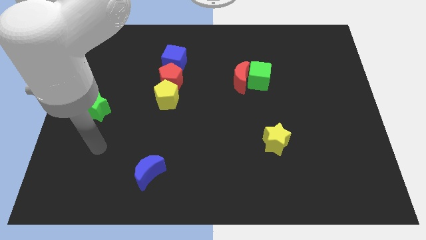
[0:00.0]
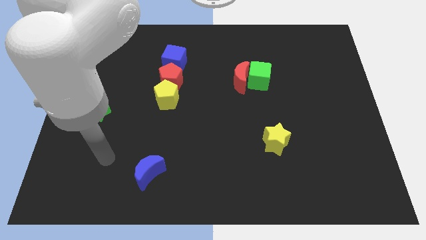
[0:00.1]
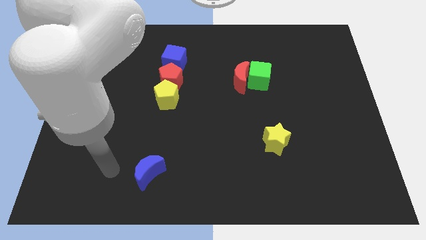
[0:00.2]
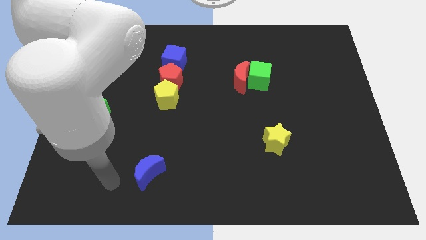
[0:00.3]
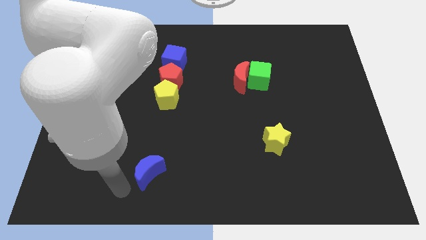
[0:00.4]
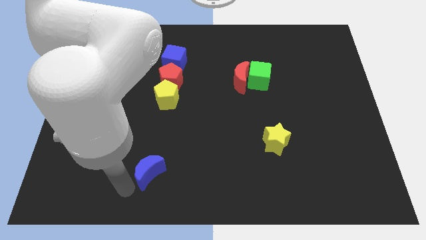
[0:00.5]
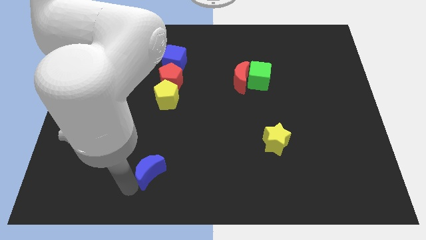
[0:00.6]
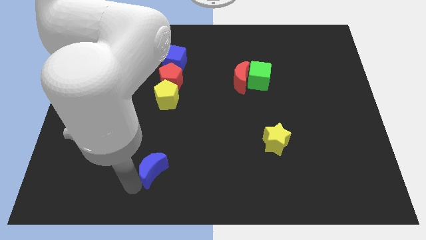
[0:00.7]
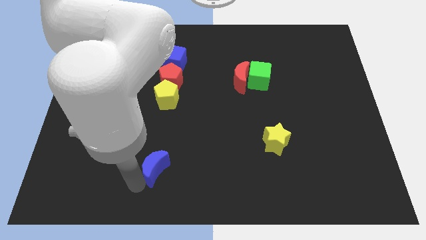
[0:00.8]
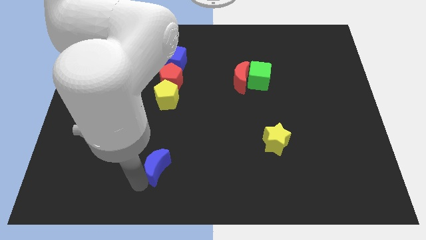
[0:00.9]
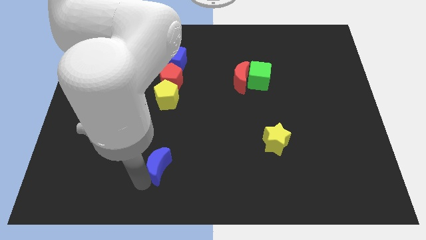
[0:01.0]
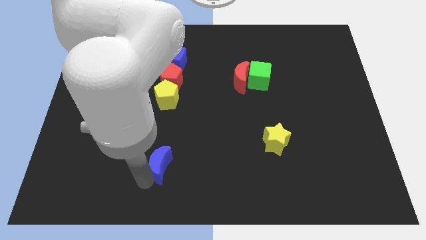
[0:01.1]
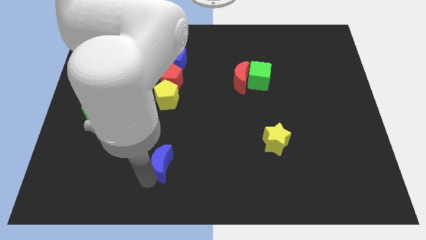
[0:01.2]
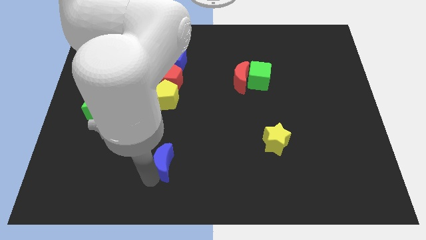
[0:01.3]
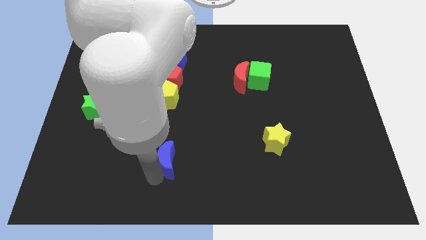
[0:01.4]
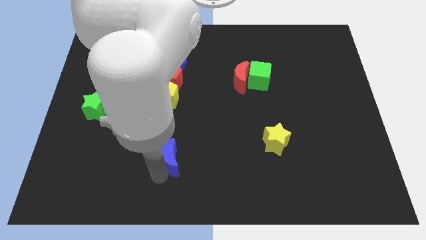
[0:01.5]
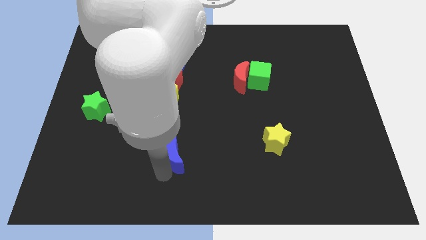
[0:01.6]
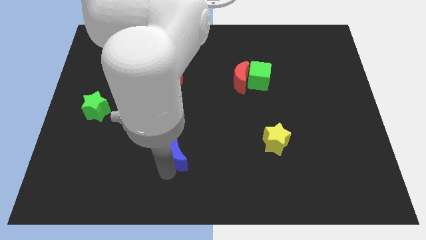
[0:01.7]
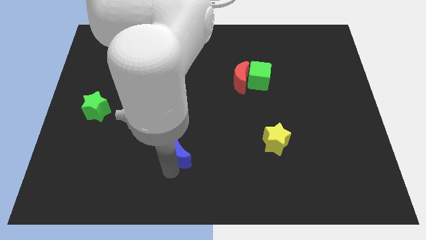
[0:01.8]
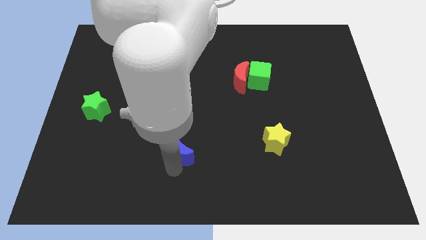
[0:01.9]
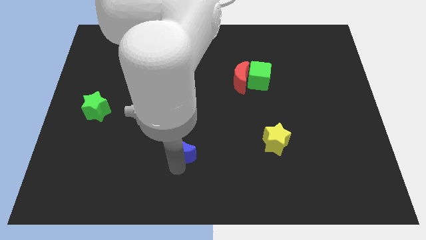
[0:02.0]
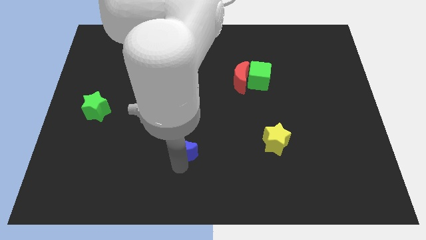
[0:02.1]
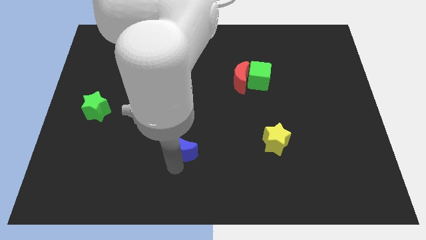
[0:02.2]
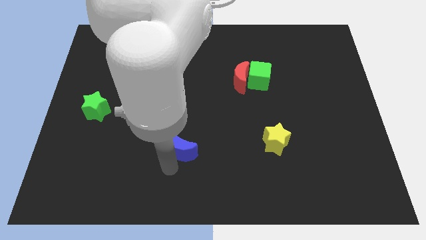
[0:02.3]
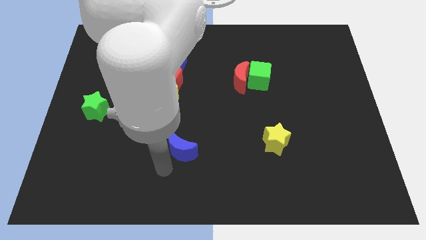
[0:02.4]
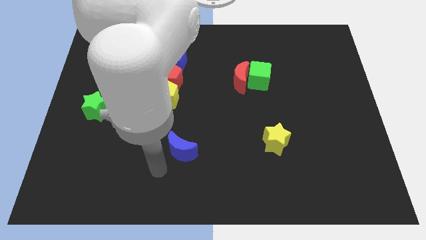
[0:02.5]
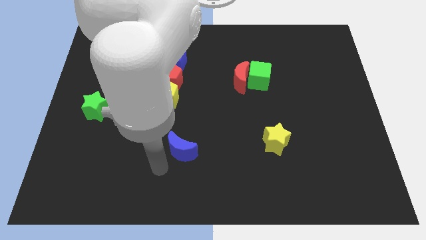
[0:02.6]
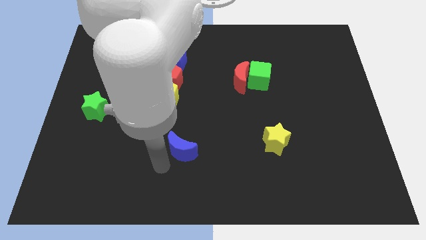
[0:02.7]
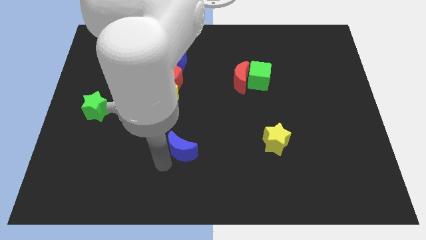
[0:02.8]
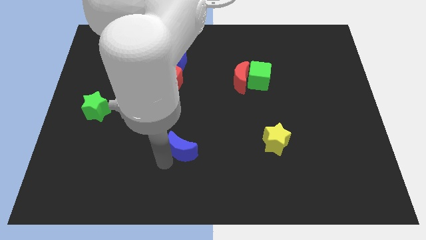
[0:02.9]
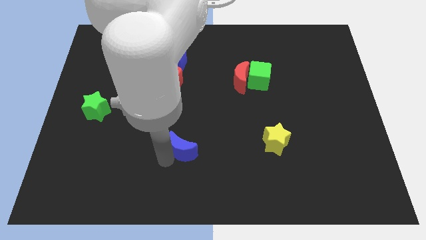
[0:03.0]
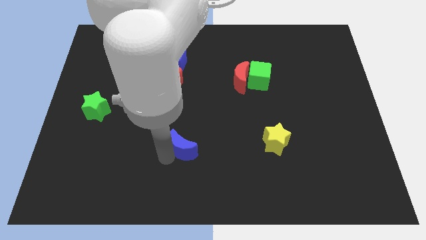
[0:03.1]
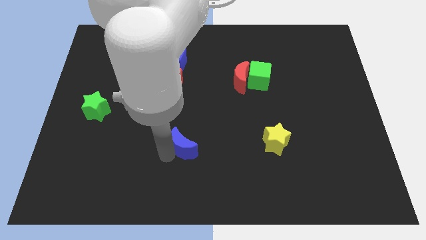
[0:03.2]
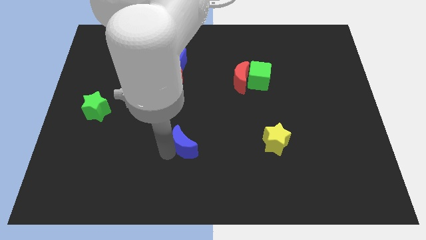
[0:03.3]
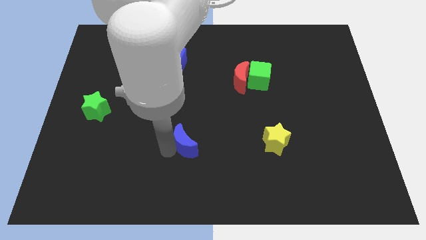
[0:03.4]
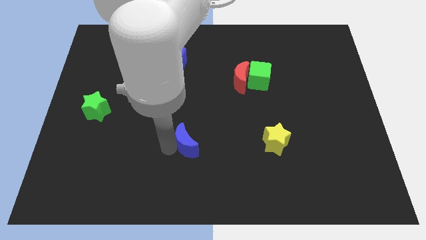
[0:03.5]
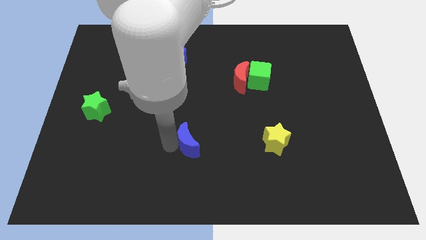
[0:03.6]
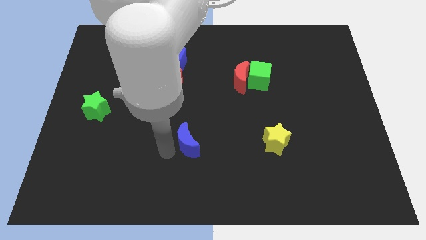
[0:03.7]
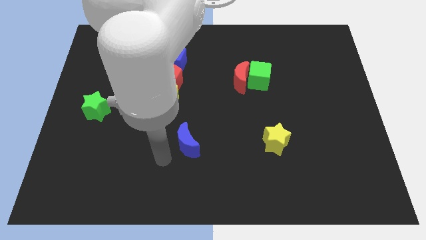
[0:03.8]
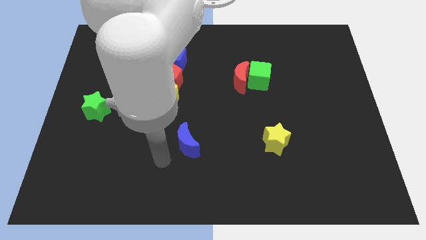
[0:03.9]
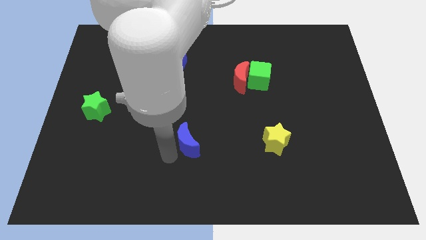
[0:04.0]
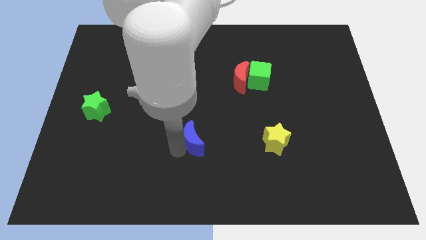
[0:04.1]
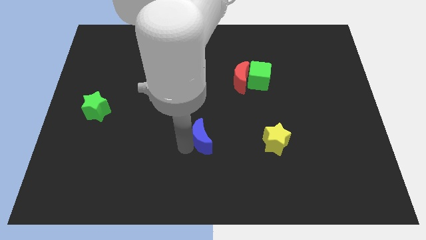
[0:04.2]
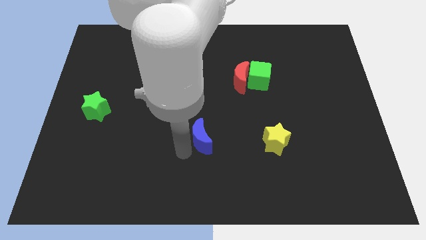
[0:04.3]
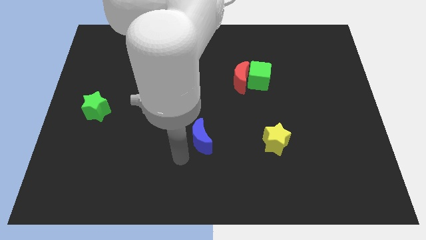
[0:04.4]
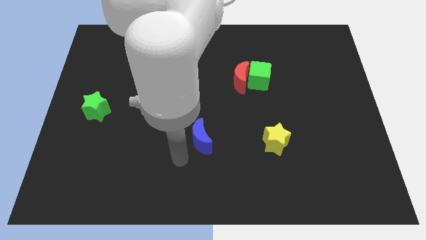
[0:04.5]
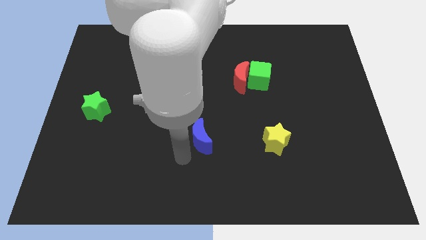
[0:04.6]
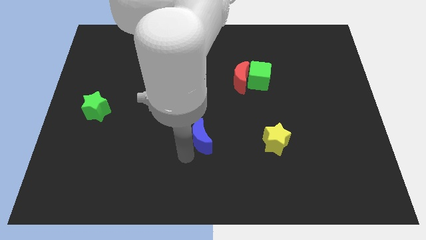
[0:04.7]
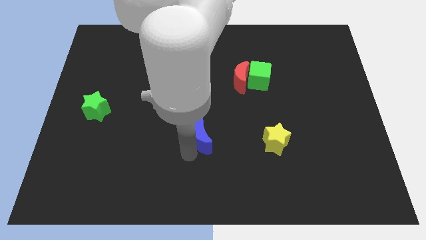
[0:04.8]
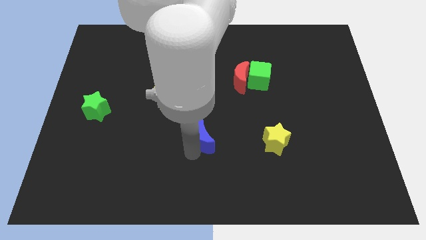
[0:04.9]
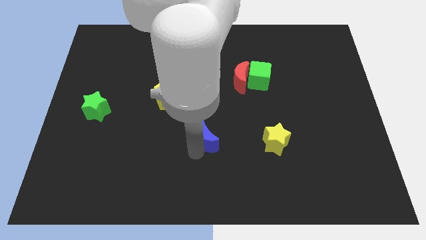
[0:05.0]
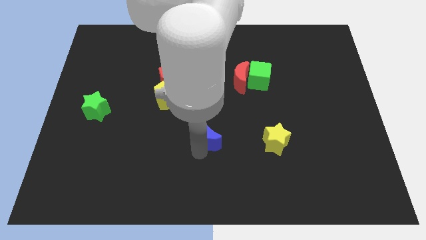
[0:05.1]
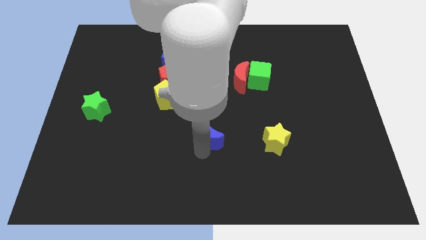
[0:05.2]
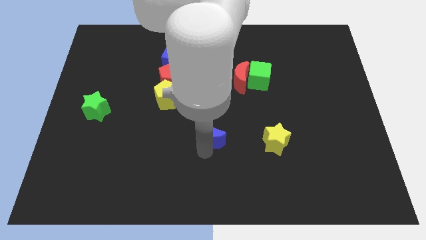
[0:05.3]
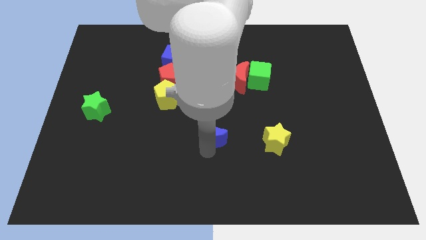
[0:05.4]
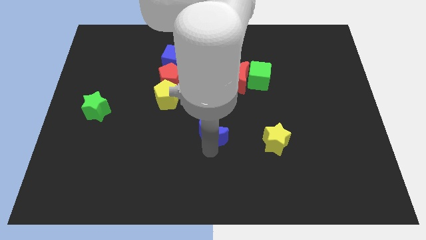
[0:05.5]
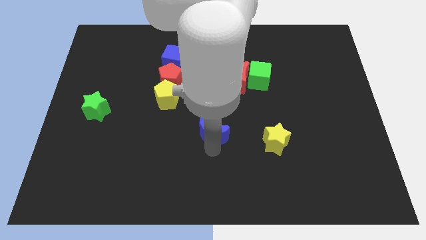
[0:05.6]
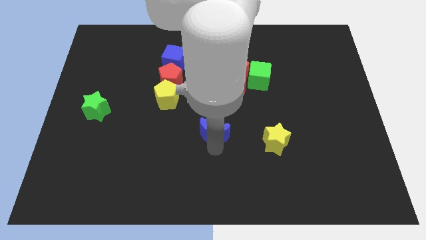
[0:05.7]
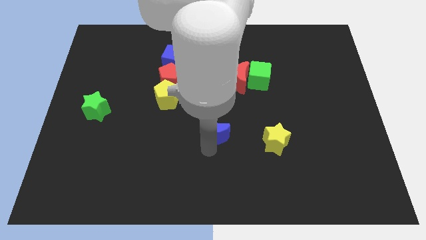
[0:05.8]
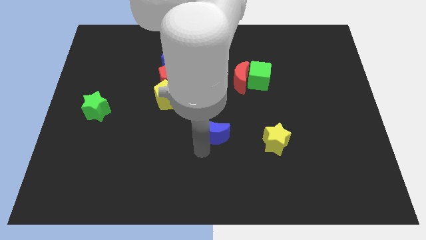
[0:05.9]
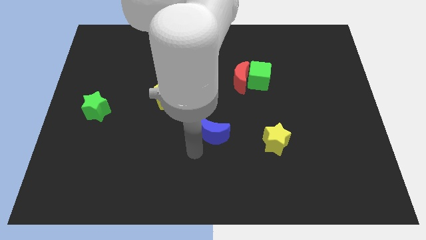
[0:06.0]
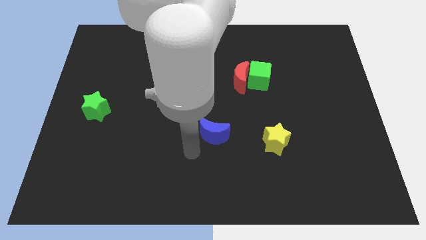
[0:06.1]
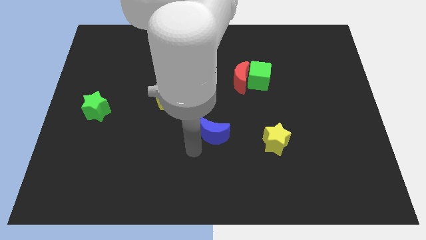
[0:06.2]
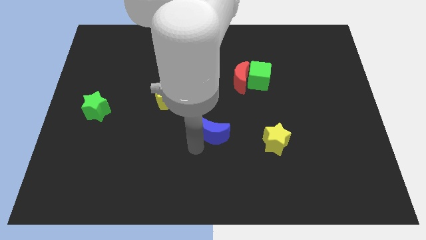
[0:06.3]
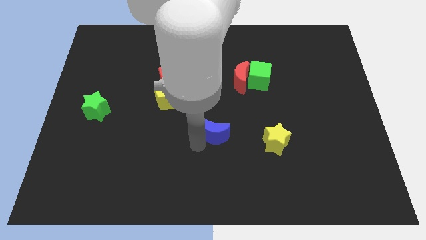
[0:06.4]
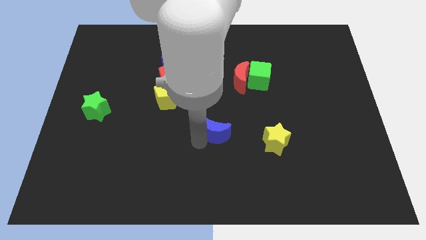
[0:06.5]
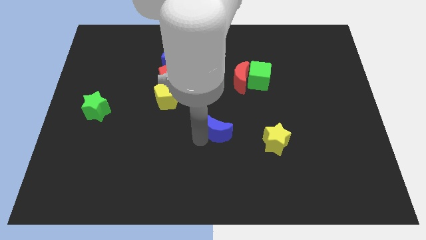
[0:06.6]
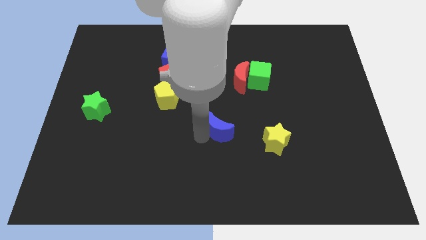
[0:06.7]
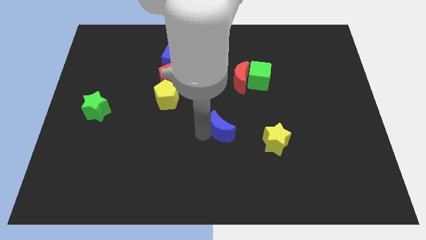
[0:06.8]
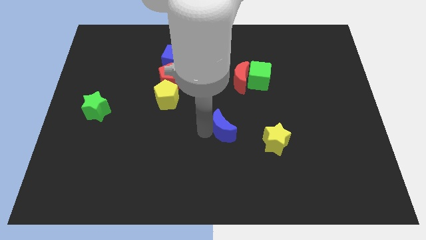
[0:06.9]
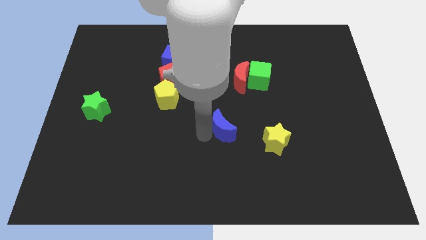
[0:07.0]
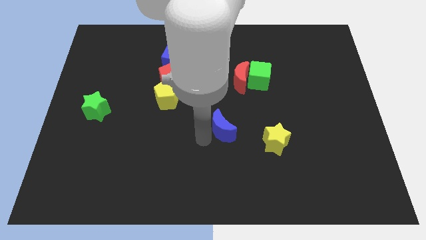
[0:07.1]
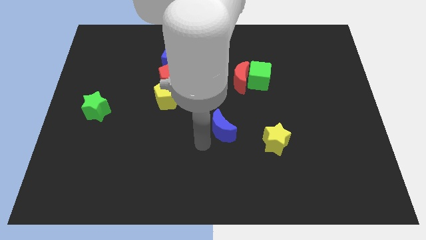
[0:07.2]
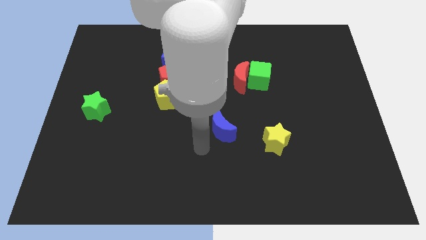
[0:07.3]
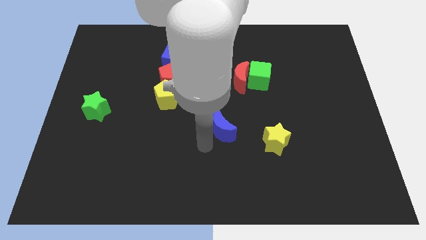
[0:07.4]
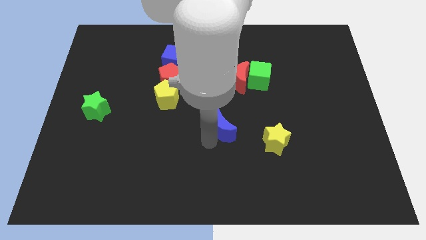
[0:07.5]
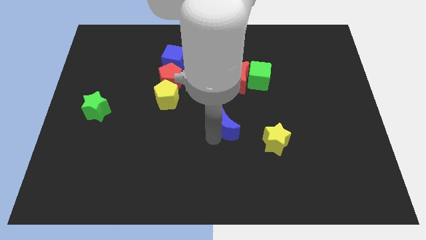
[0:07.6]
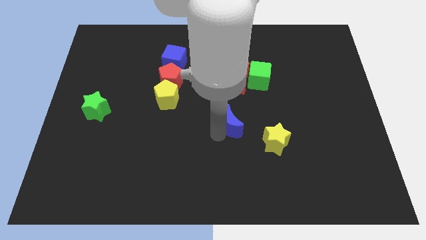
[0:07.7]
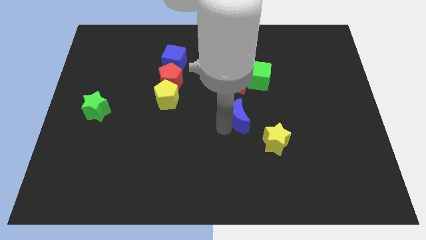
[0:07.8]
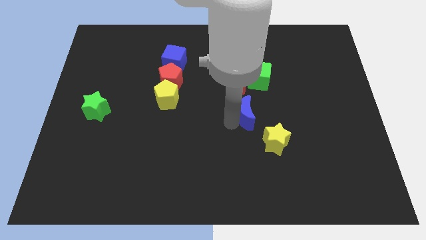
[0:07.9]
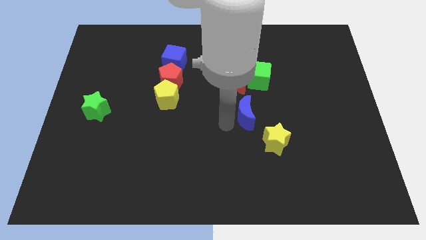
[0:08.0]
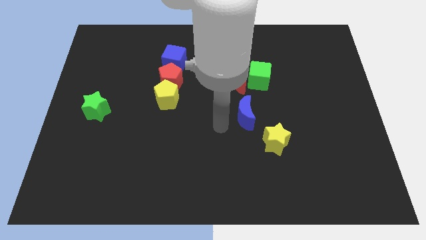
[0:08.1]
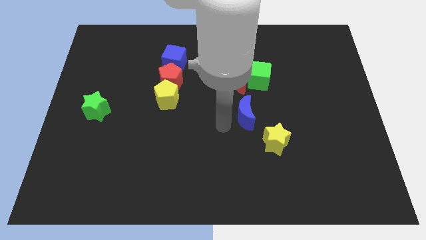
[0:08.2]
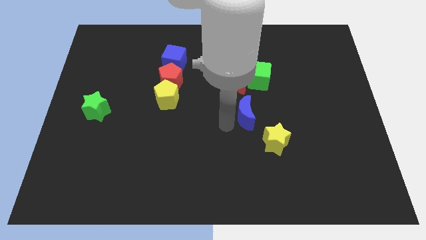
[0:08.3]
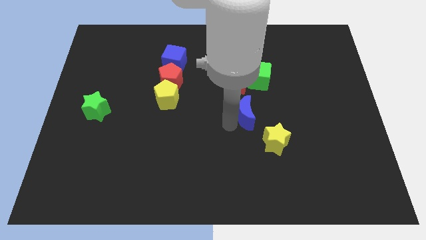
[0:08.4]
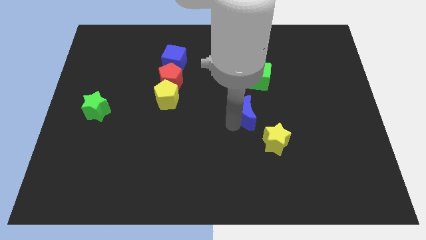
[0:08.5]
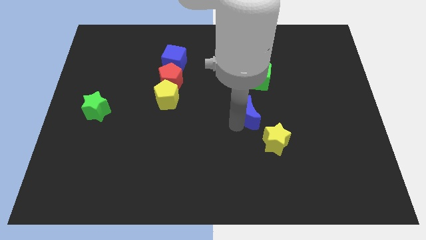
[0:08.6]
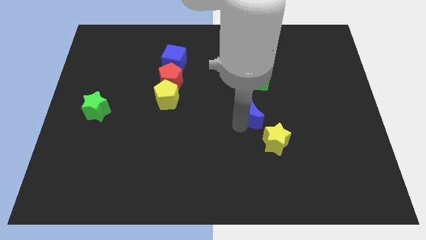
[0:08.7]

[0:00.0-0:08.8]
put the blue moon to the top of the yellow star
